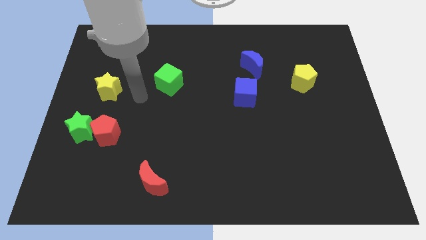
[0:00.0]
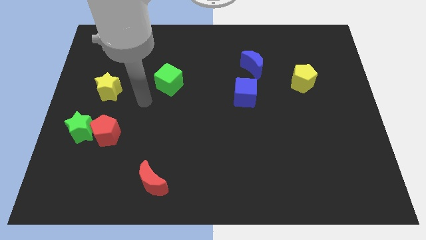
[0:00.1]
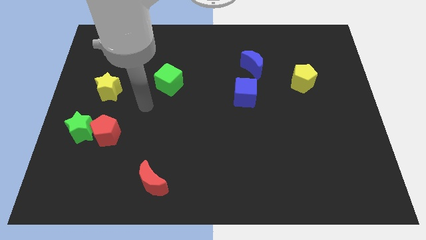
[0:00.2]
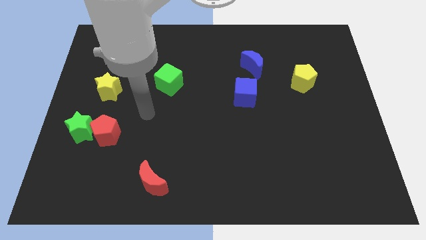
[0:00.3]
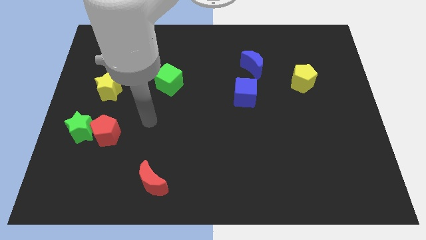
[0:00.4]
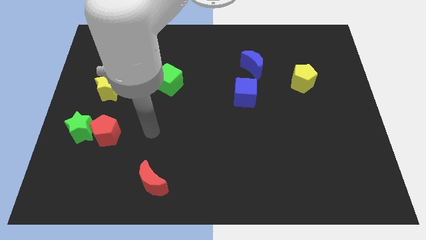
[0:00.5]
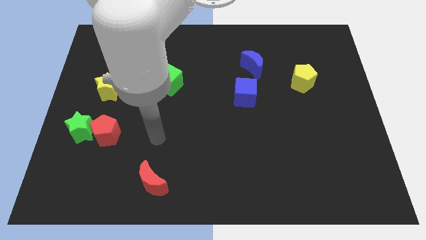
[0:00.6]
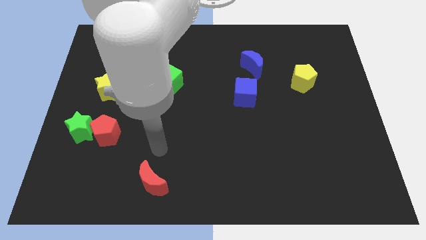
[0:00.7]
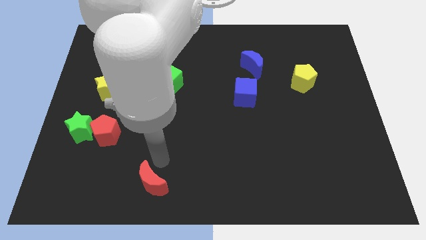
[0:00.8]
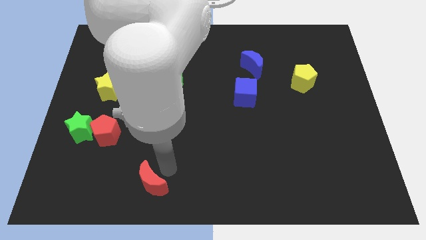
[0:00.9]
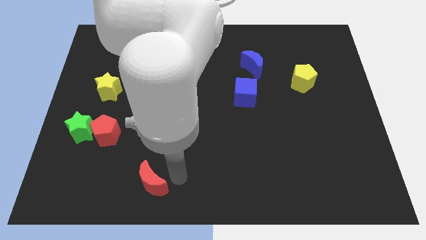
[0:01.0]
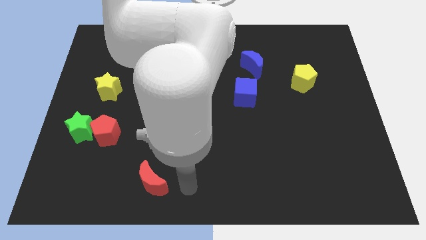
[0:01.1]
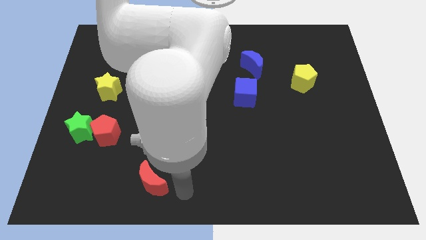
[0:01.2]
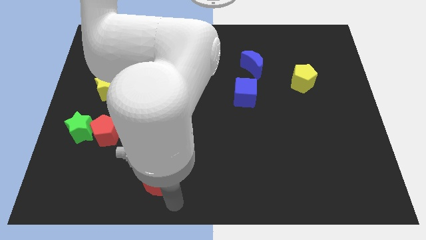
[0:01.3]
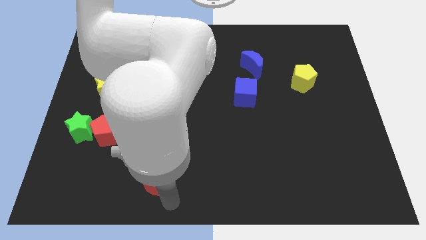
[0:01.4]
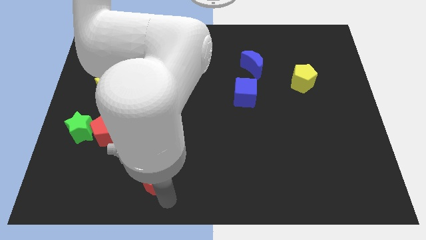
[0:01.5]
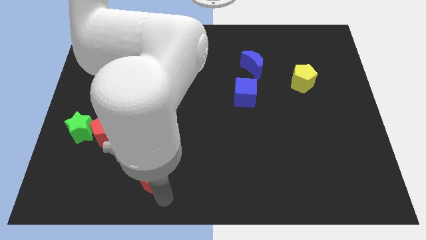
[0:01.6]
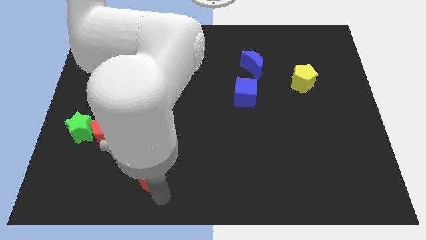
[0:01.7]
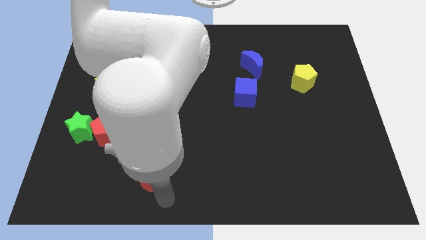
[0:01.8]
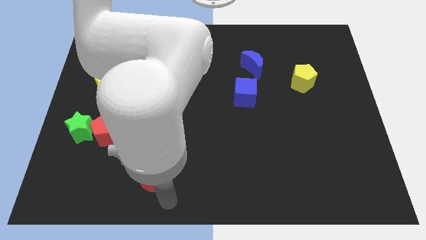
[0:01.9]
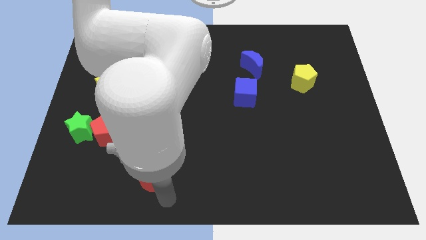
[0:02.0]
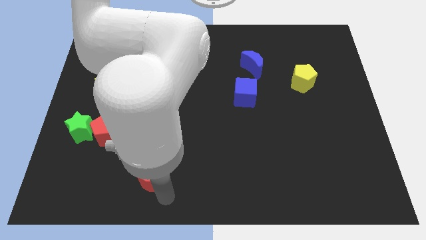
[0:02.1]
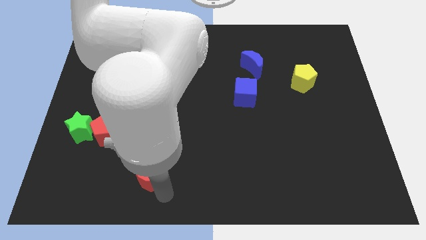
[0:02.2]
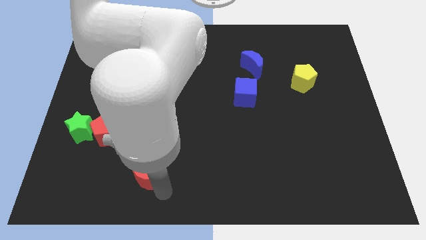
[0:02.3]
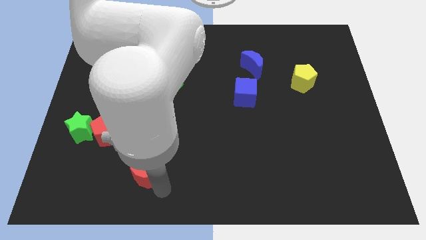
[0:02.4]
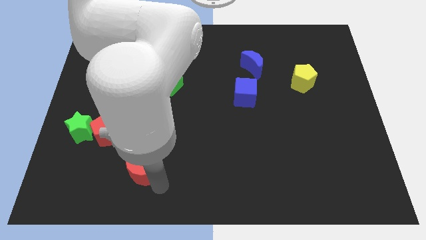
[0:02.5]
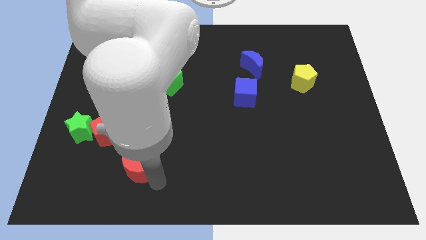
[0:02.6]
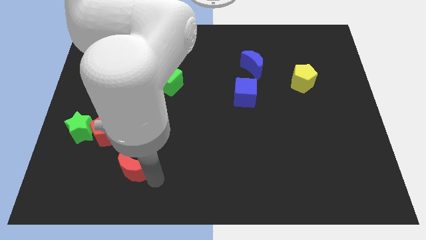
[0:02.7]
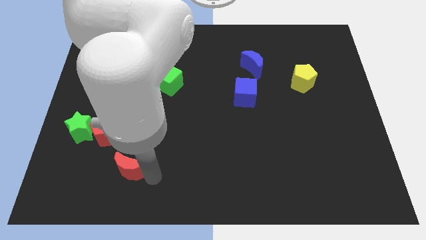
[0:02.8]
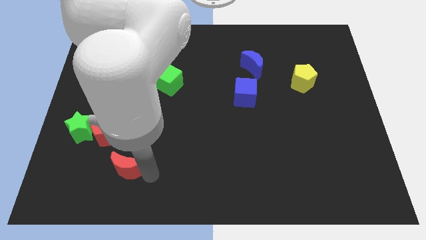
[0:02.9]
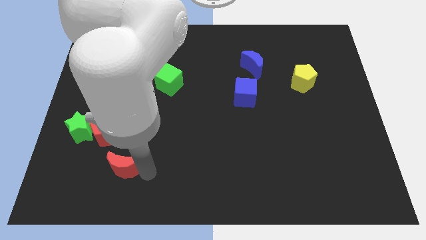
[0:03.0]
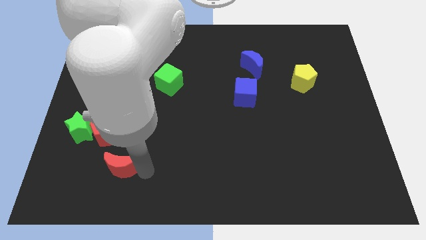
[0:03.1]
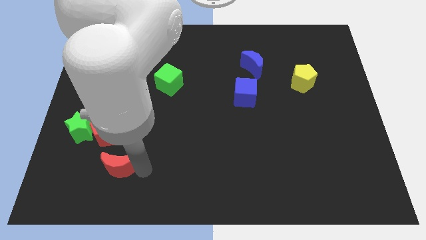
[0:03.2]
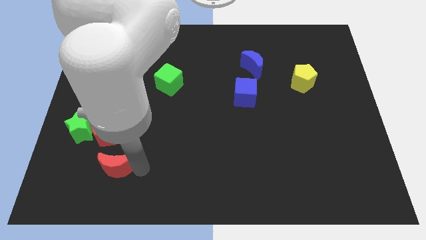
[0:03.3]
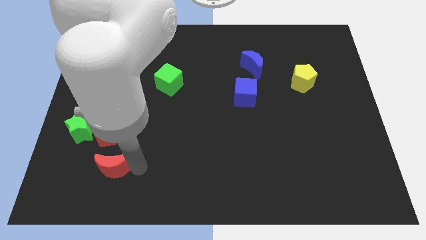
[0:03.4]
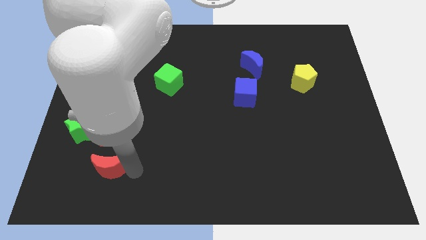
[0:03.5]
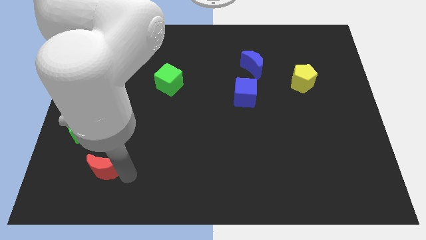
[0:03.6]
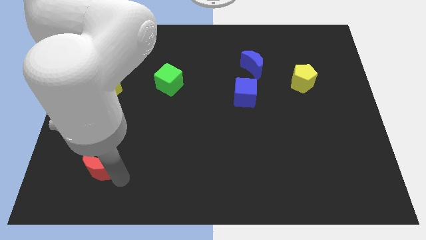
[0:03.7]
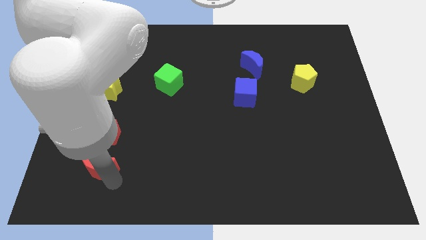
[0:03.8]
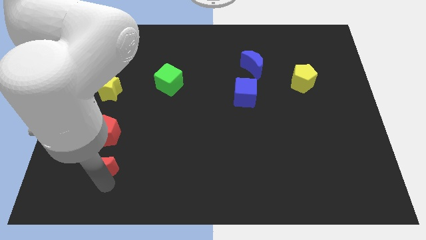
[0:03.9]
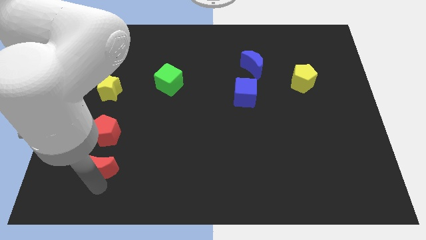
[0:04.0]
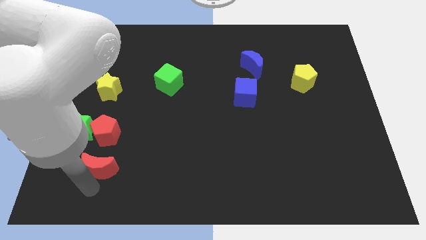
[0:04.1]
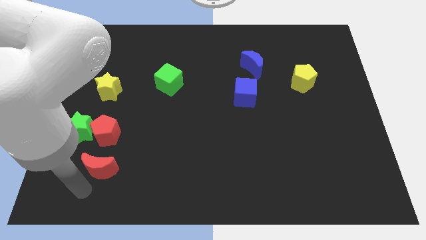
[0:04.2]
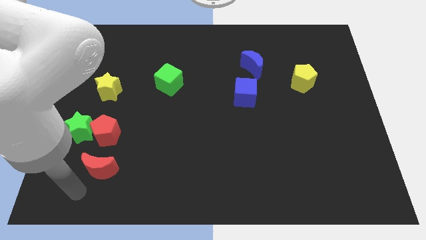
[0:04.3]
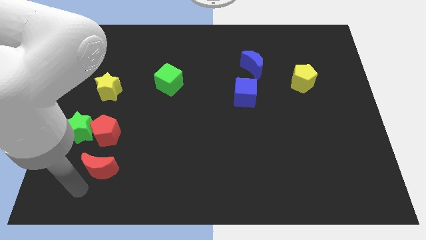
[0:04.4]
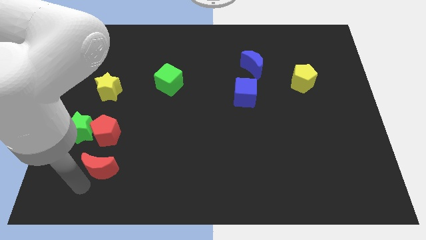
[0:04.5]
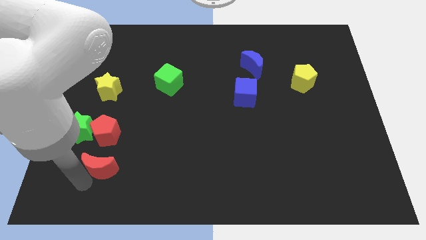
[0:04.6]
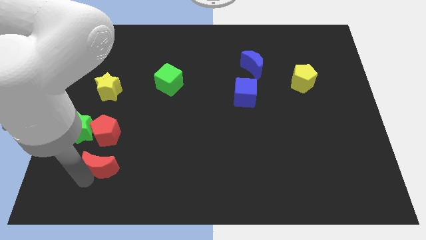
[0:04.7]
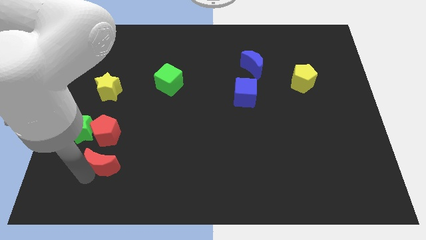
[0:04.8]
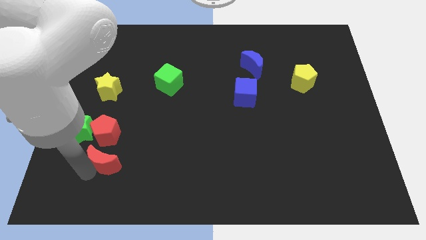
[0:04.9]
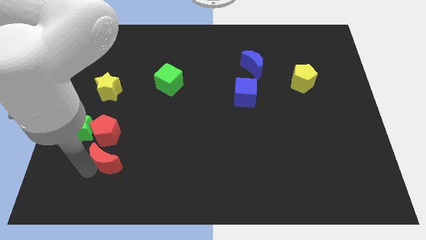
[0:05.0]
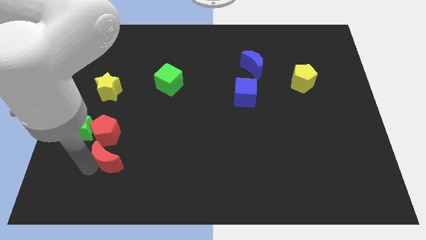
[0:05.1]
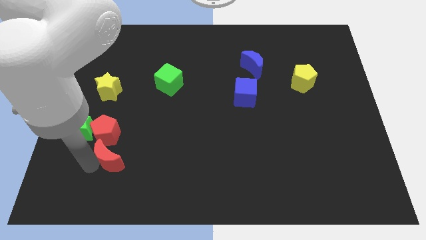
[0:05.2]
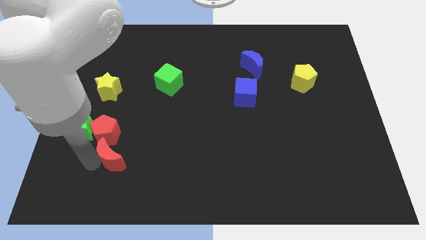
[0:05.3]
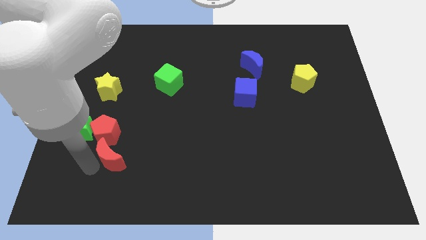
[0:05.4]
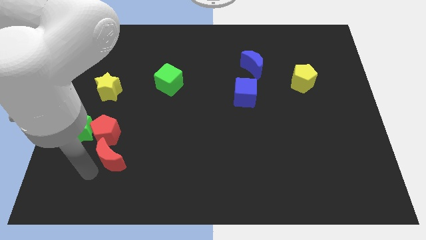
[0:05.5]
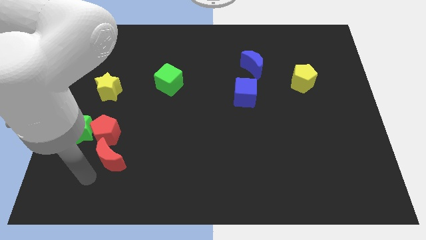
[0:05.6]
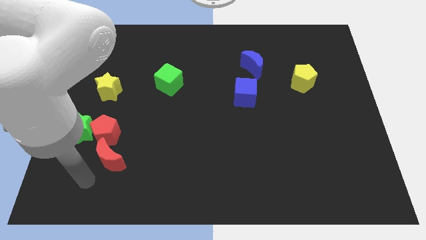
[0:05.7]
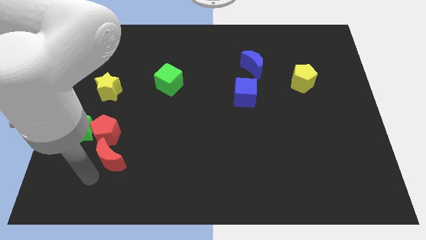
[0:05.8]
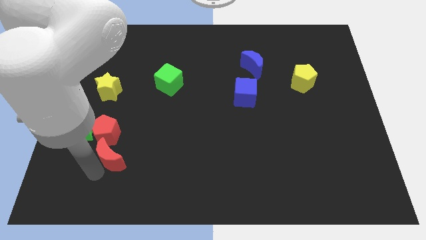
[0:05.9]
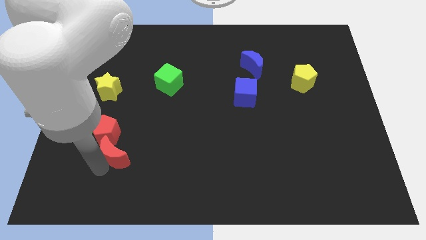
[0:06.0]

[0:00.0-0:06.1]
slide the red moon towards the red pentagon
